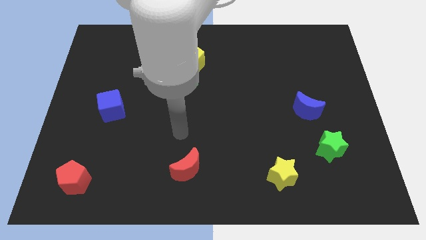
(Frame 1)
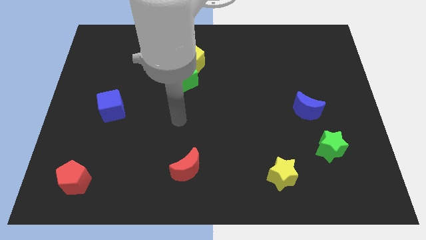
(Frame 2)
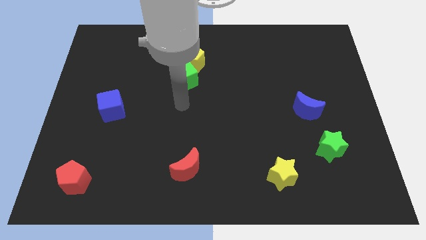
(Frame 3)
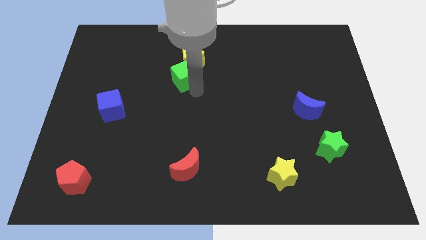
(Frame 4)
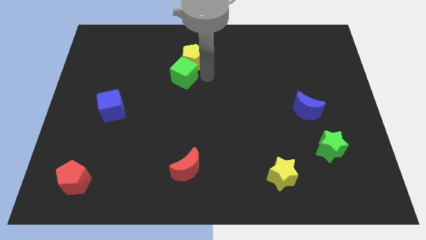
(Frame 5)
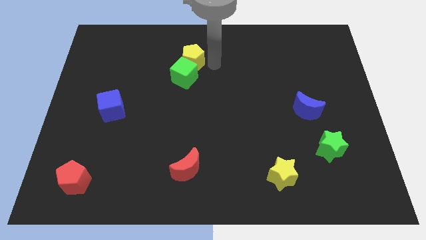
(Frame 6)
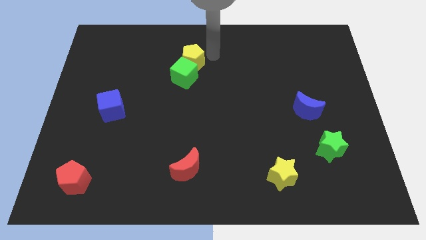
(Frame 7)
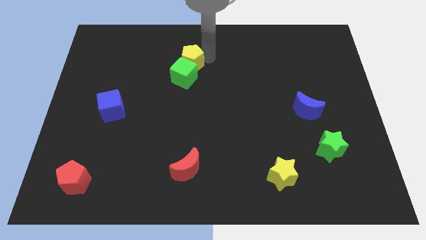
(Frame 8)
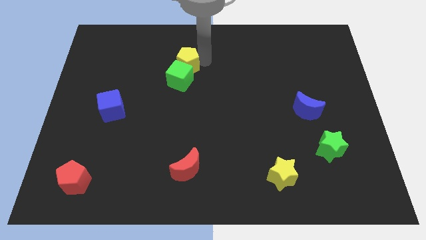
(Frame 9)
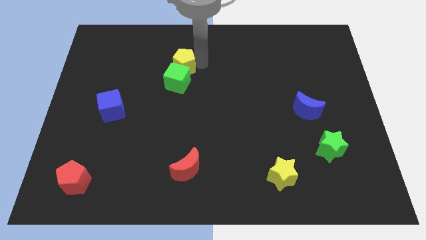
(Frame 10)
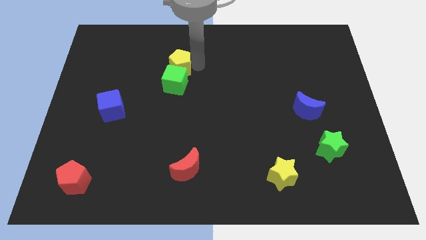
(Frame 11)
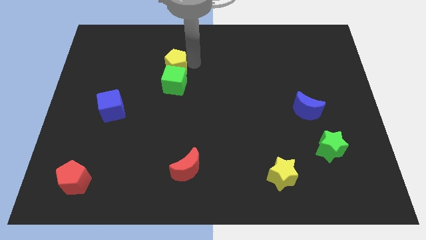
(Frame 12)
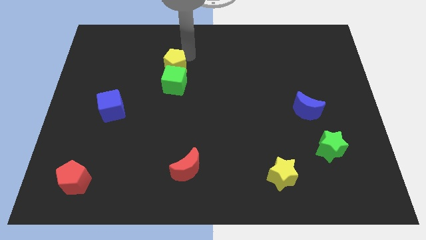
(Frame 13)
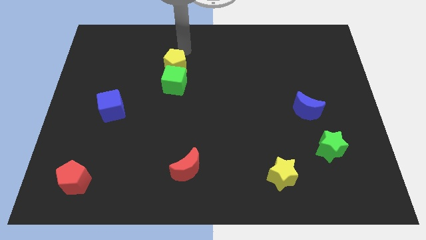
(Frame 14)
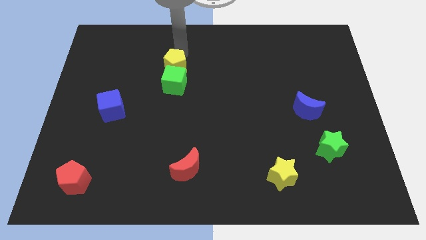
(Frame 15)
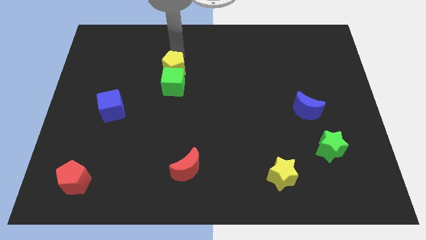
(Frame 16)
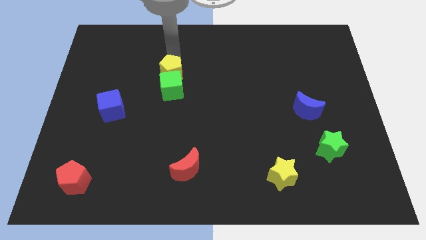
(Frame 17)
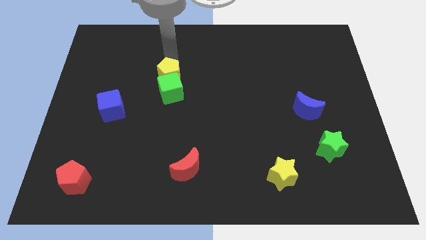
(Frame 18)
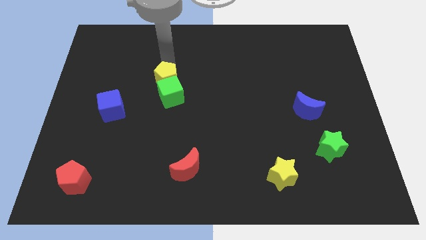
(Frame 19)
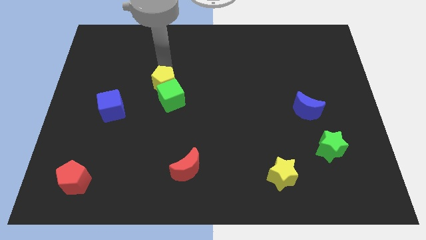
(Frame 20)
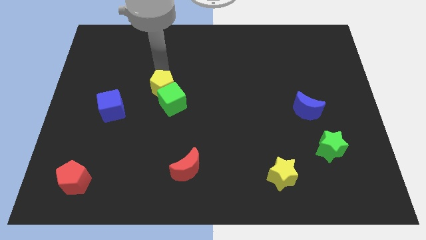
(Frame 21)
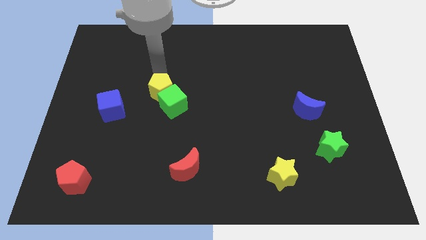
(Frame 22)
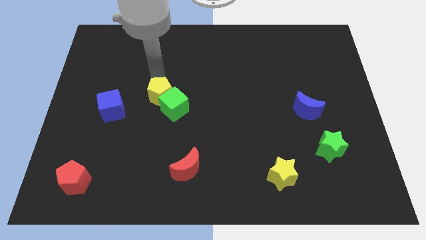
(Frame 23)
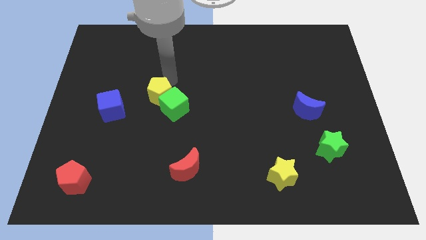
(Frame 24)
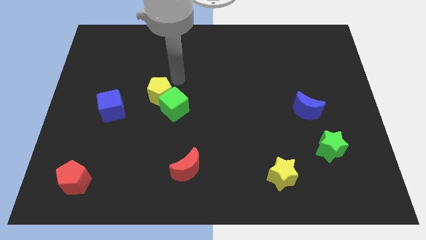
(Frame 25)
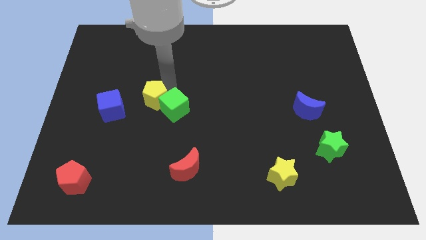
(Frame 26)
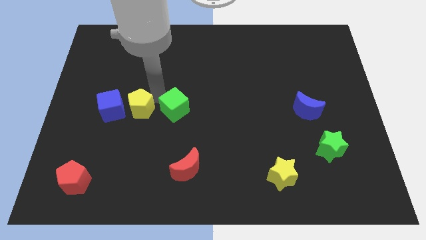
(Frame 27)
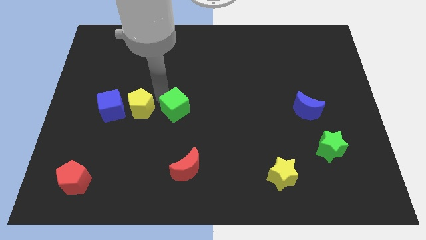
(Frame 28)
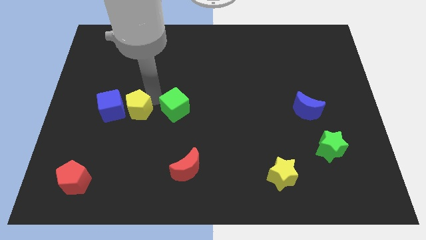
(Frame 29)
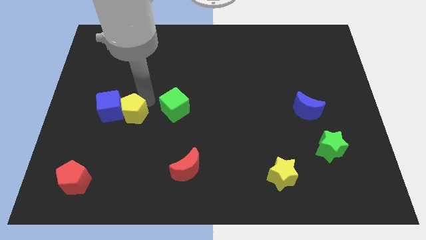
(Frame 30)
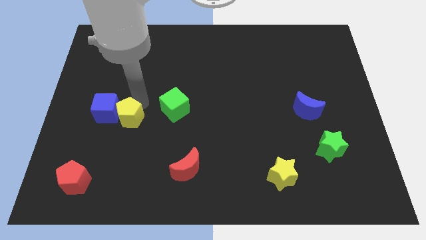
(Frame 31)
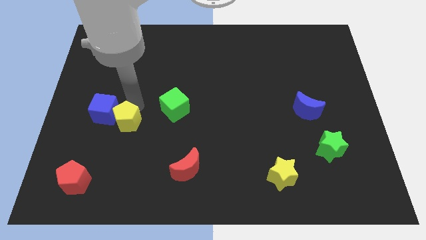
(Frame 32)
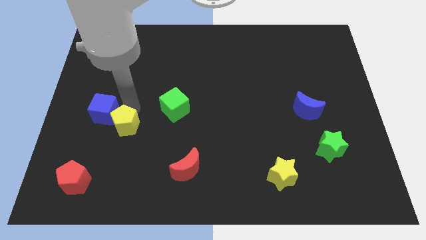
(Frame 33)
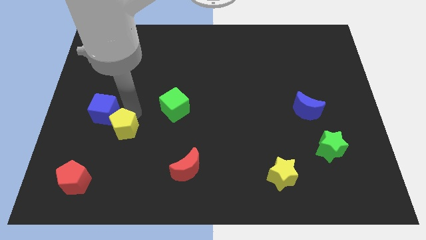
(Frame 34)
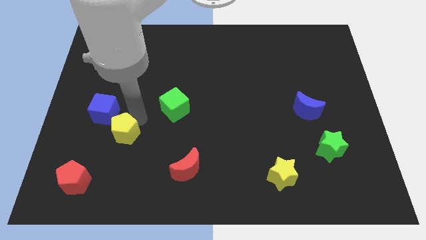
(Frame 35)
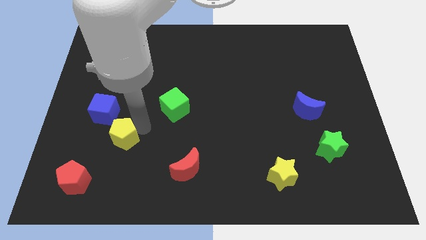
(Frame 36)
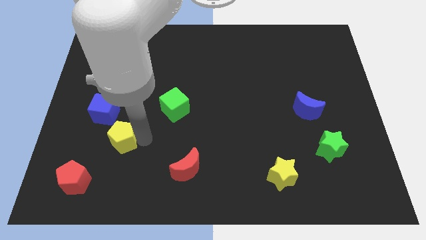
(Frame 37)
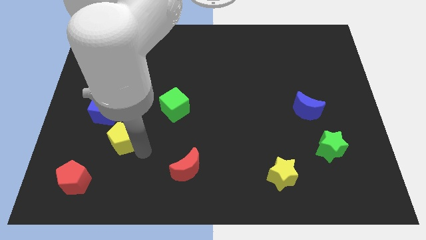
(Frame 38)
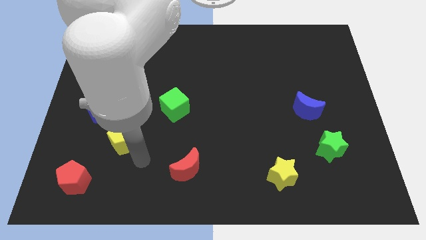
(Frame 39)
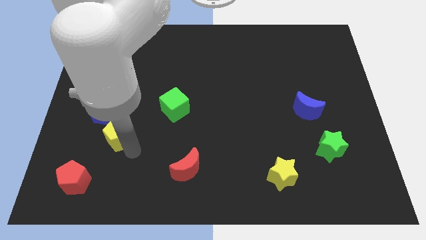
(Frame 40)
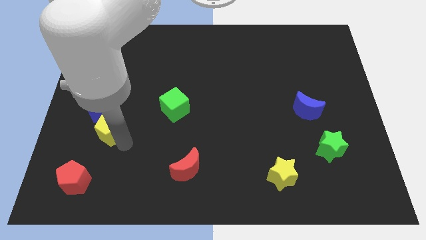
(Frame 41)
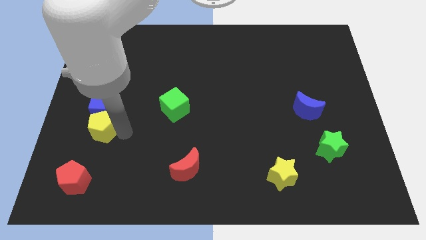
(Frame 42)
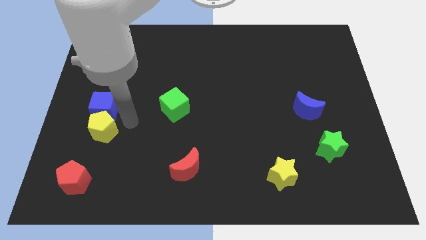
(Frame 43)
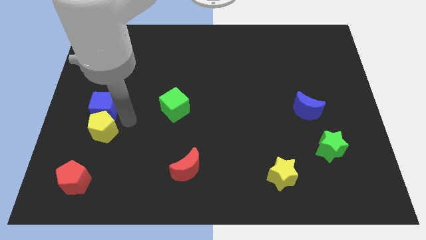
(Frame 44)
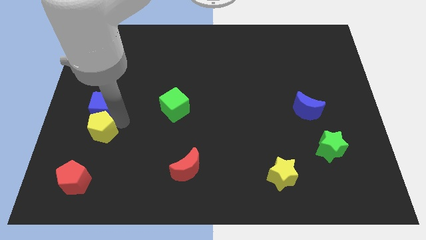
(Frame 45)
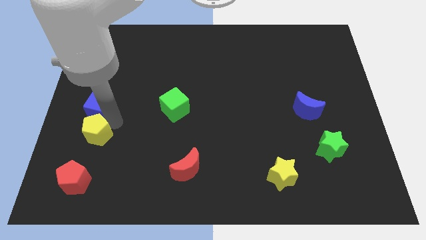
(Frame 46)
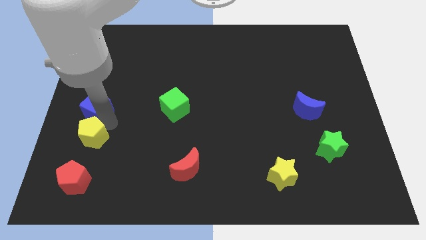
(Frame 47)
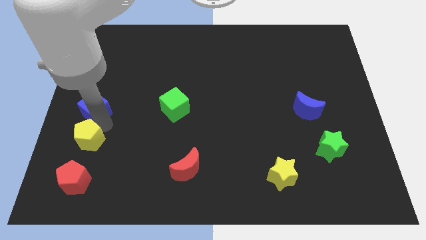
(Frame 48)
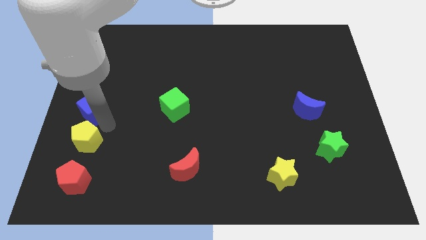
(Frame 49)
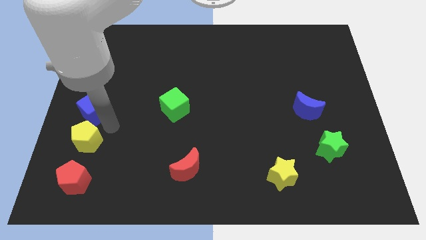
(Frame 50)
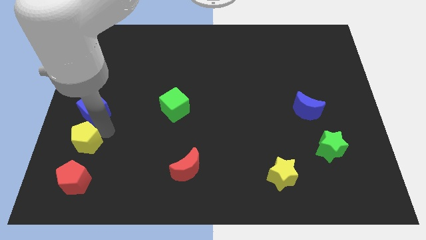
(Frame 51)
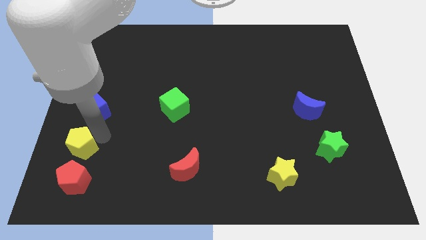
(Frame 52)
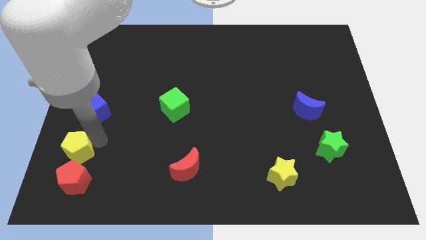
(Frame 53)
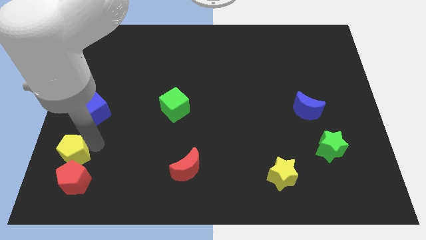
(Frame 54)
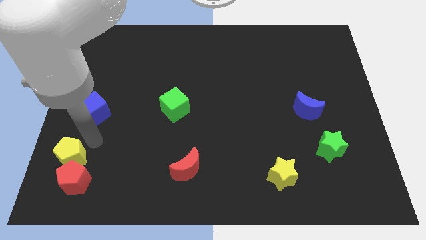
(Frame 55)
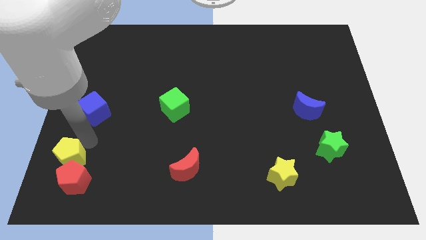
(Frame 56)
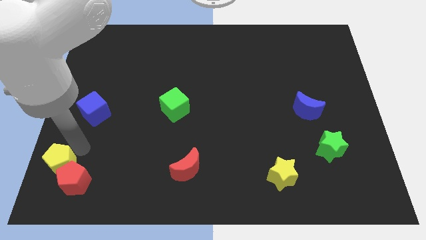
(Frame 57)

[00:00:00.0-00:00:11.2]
put the yellow pentagon to the bottom left of the board

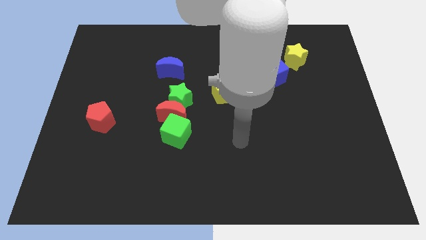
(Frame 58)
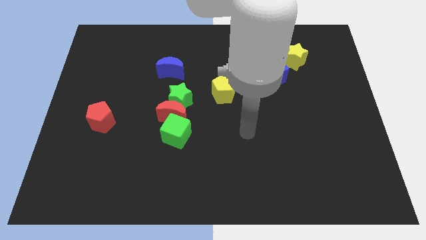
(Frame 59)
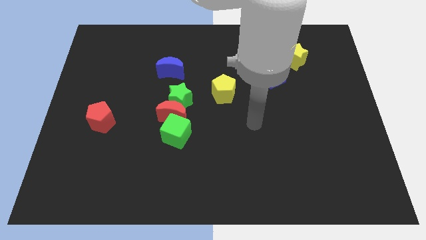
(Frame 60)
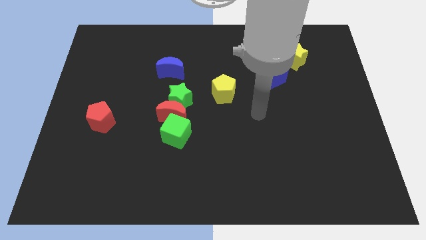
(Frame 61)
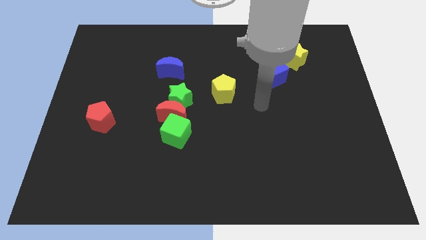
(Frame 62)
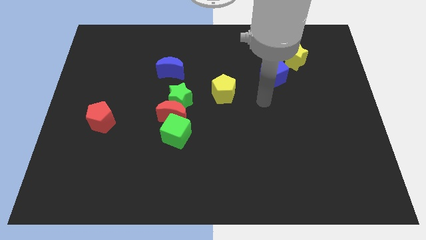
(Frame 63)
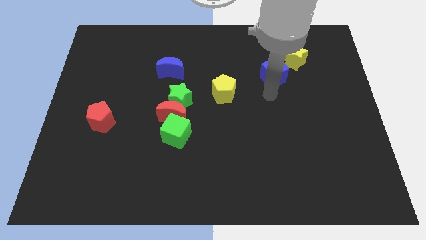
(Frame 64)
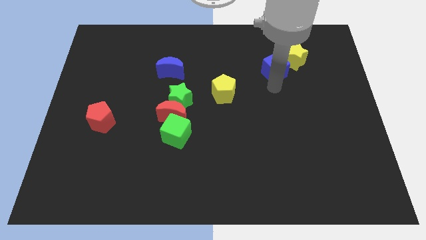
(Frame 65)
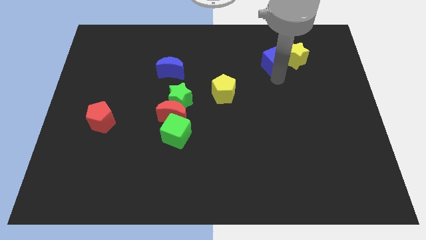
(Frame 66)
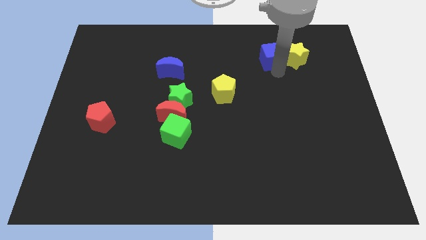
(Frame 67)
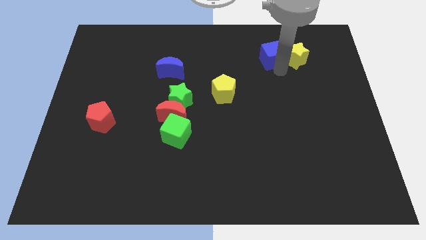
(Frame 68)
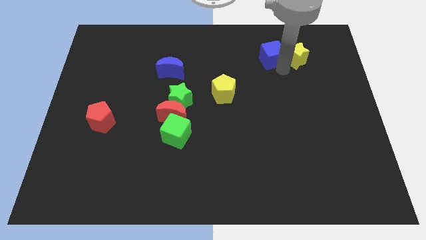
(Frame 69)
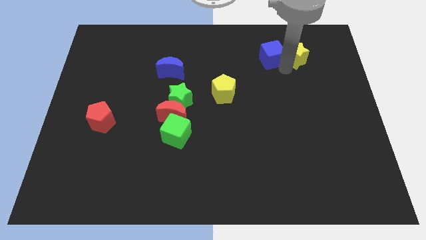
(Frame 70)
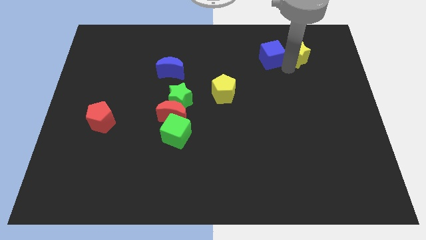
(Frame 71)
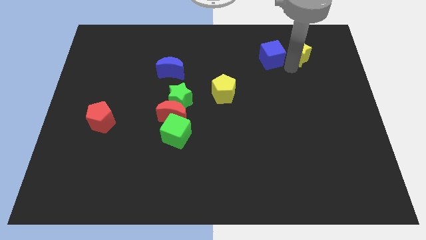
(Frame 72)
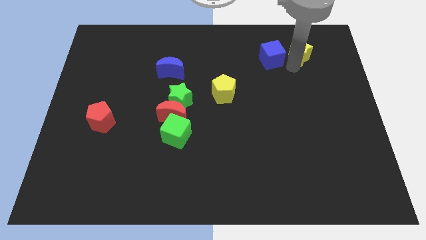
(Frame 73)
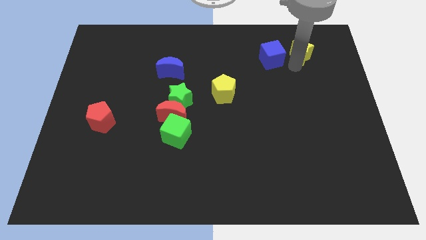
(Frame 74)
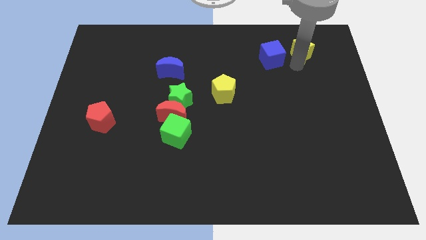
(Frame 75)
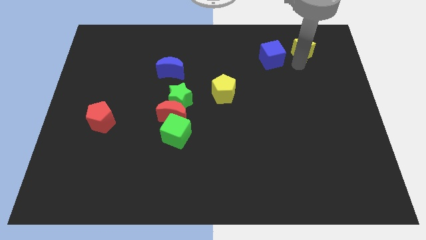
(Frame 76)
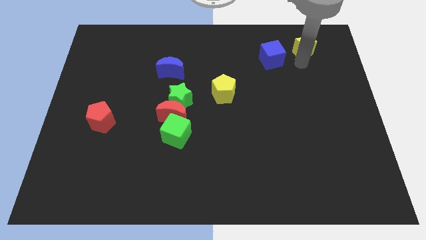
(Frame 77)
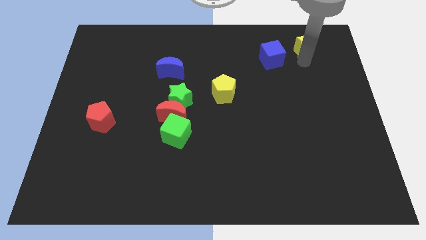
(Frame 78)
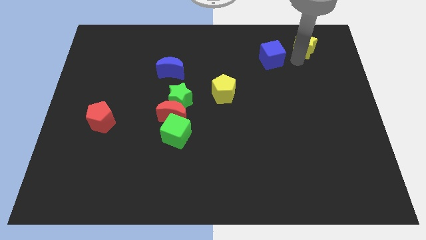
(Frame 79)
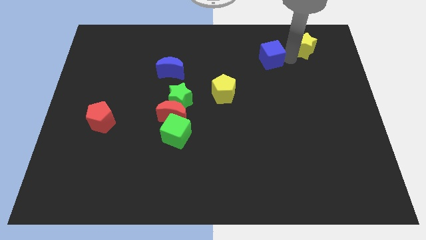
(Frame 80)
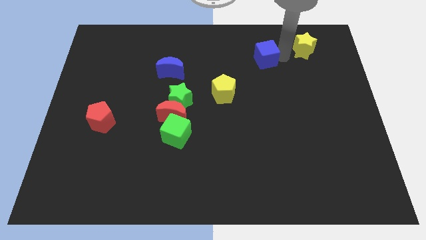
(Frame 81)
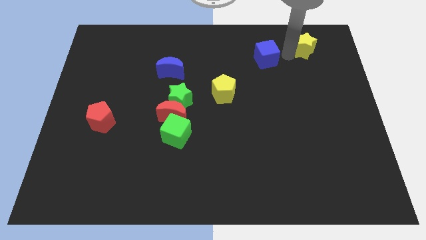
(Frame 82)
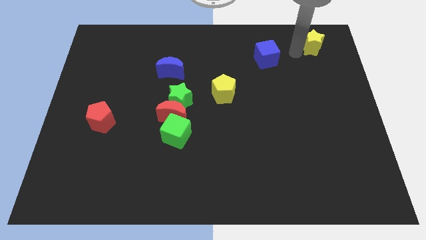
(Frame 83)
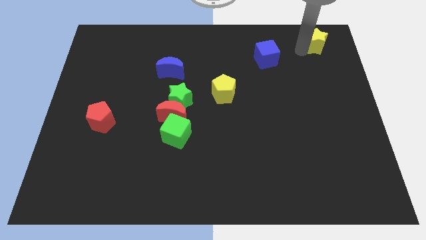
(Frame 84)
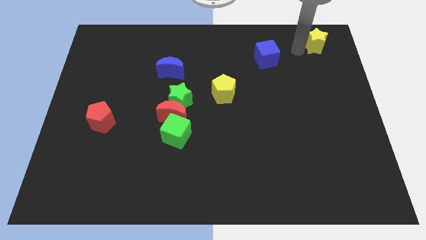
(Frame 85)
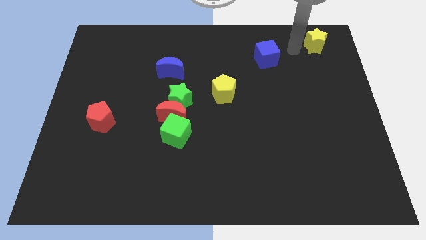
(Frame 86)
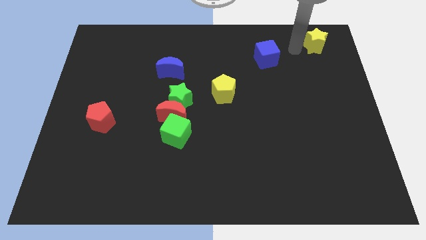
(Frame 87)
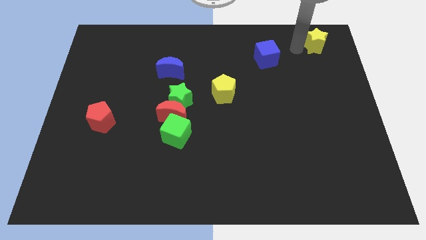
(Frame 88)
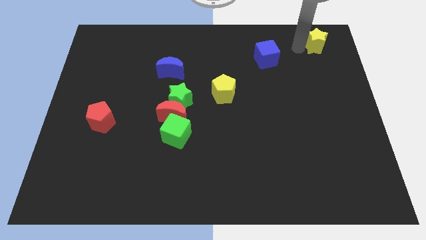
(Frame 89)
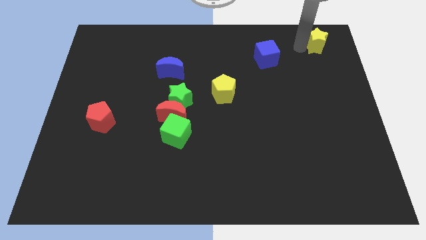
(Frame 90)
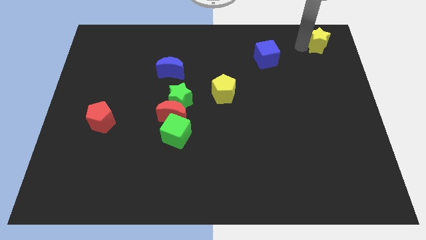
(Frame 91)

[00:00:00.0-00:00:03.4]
put the yellow star to the upper right corner
